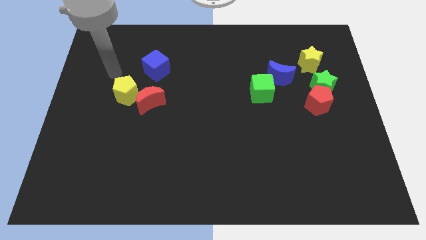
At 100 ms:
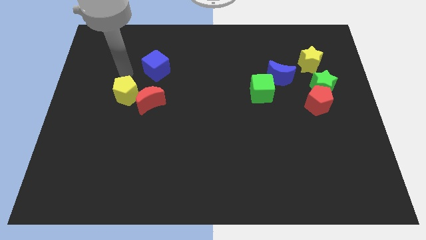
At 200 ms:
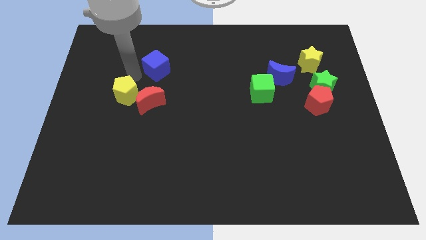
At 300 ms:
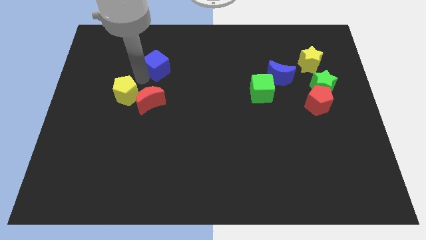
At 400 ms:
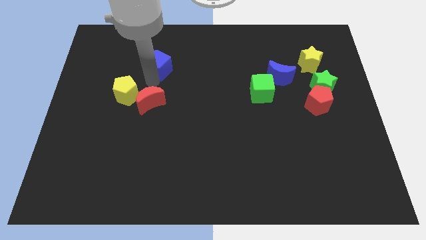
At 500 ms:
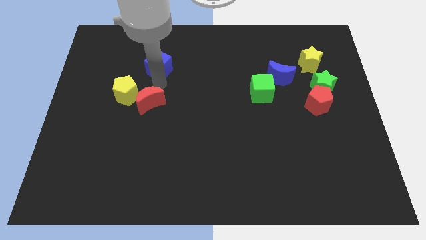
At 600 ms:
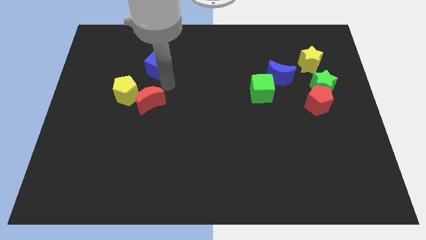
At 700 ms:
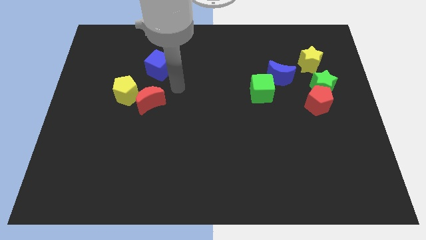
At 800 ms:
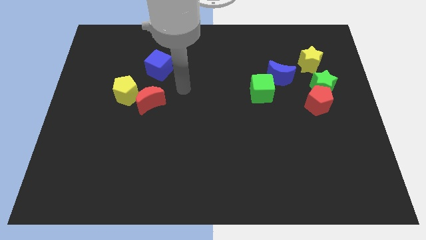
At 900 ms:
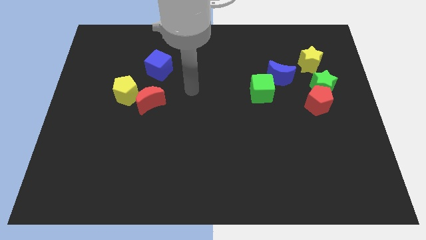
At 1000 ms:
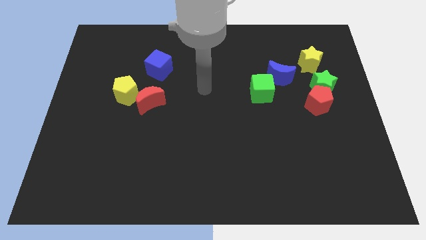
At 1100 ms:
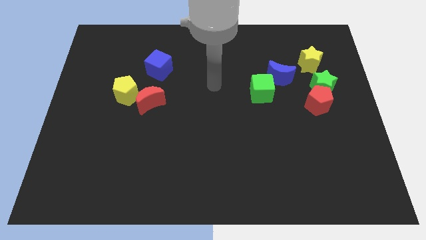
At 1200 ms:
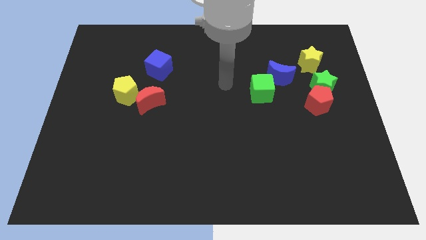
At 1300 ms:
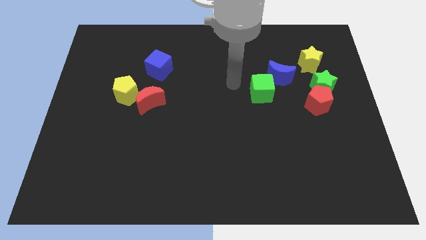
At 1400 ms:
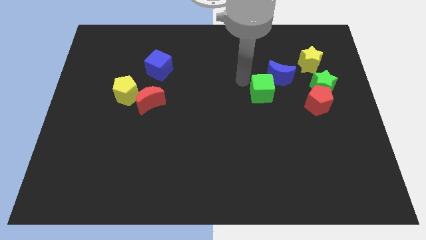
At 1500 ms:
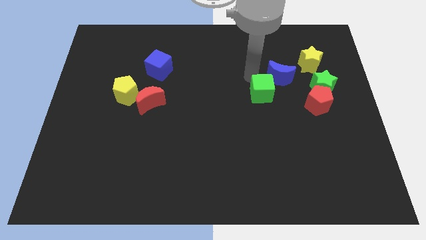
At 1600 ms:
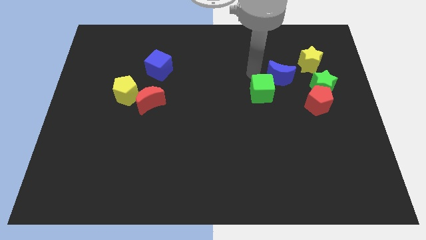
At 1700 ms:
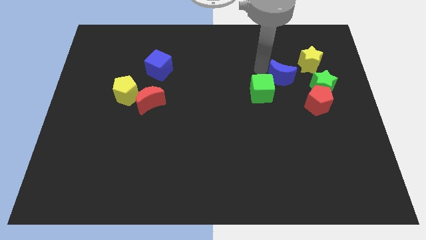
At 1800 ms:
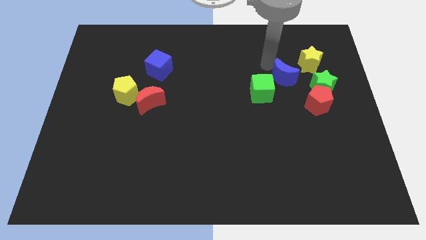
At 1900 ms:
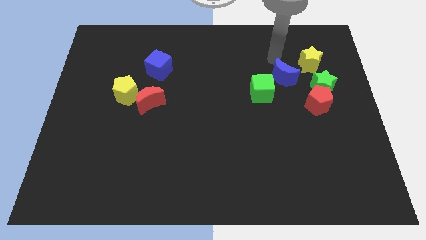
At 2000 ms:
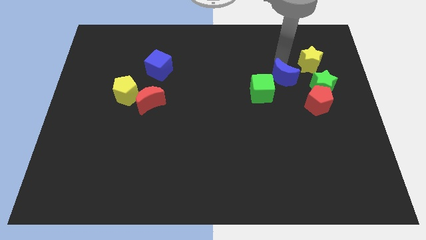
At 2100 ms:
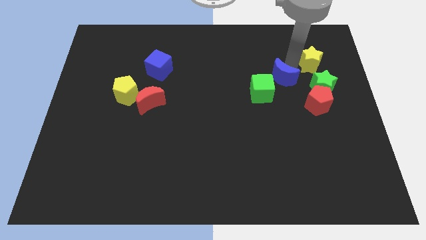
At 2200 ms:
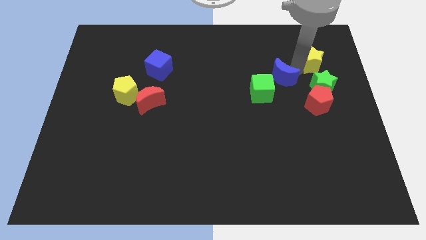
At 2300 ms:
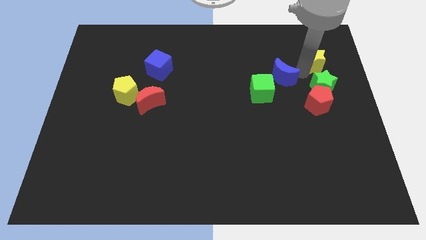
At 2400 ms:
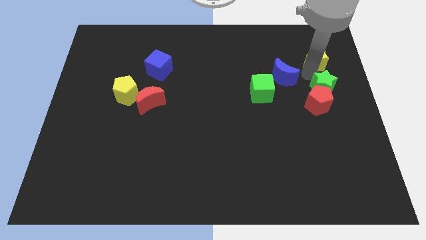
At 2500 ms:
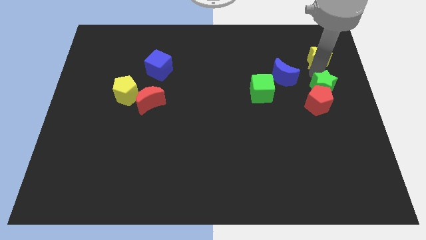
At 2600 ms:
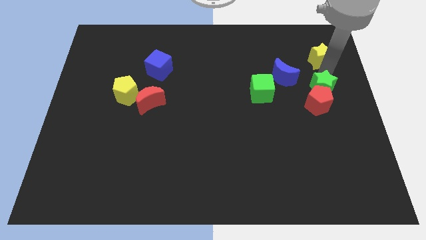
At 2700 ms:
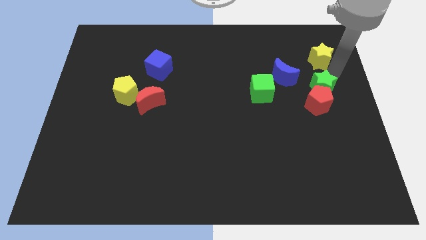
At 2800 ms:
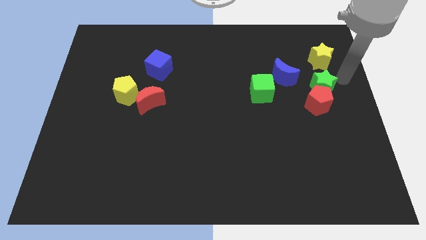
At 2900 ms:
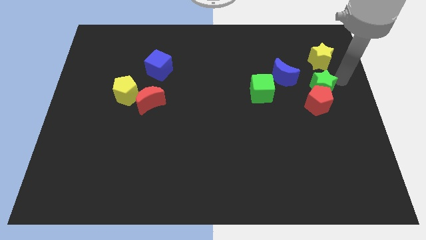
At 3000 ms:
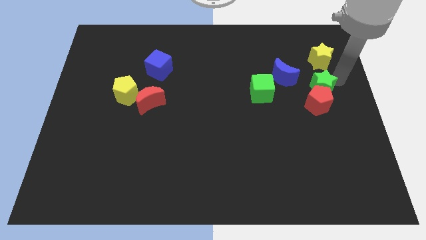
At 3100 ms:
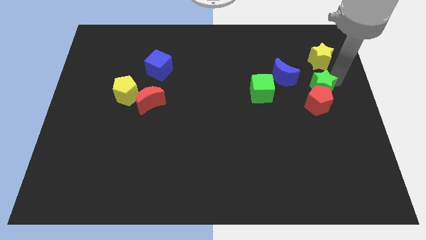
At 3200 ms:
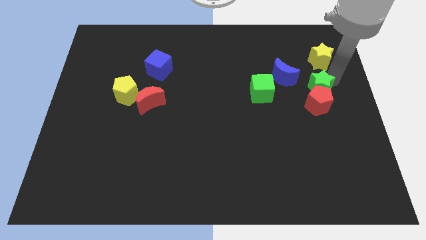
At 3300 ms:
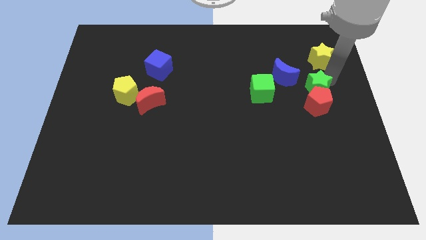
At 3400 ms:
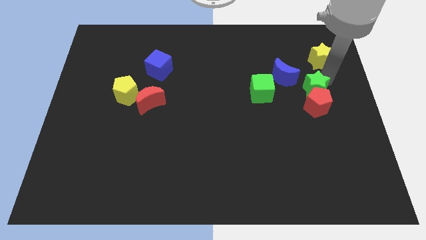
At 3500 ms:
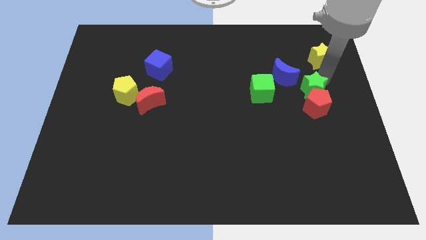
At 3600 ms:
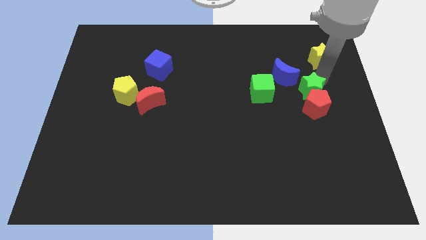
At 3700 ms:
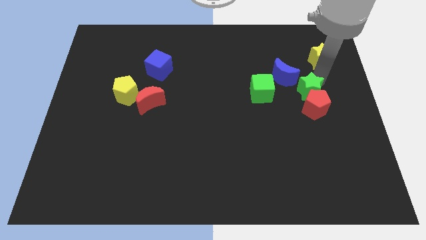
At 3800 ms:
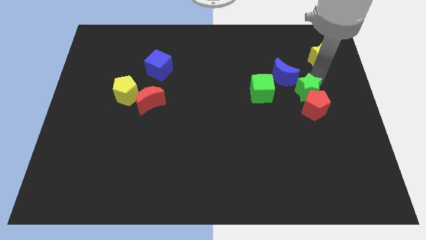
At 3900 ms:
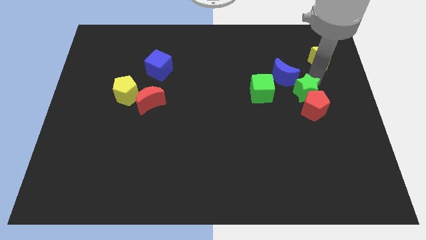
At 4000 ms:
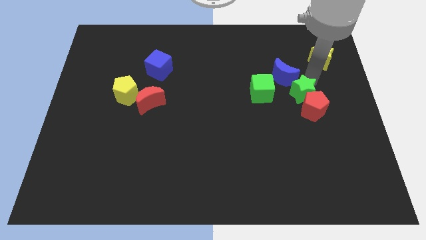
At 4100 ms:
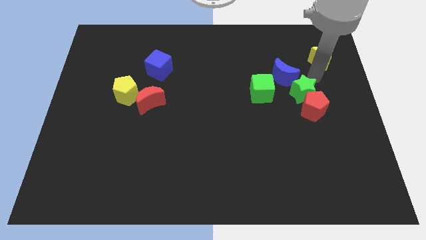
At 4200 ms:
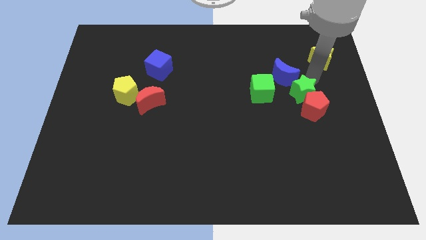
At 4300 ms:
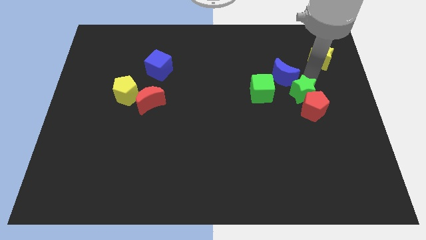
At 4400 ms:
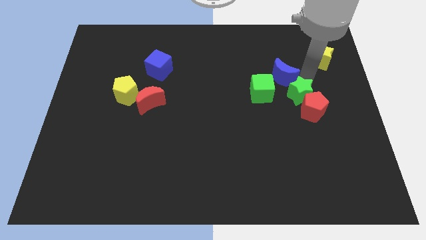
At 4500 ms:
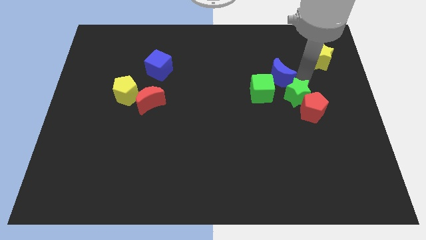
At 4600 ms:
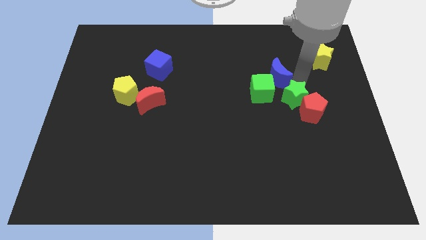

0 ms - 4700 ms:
slide the green star a little bit down and to the left diagonally

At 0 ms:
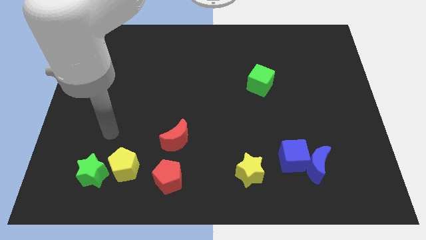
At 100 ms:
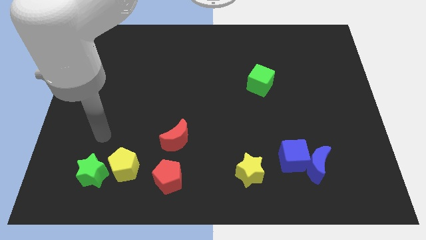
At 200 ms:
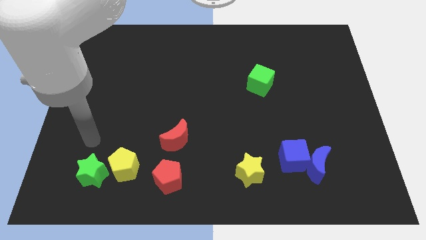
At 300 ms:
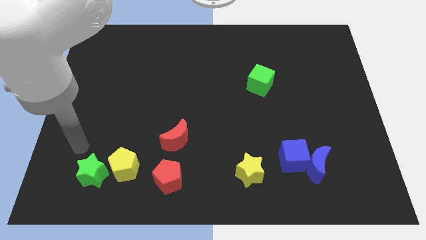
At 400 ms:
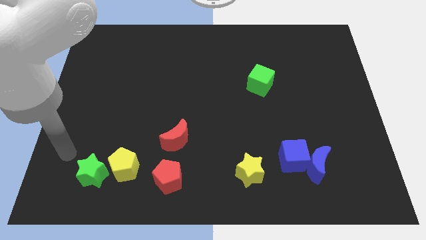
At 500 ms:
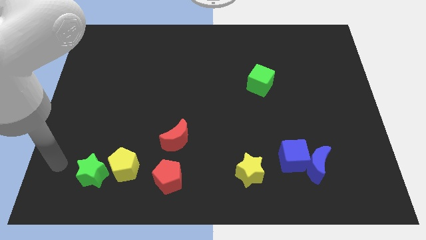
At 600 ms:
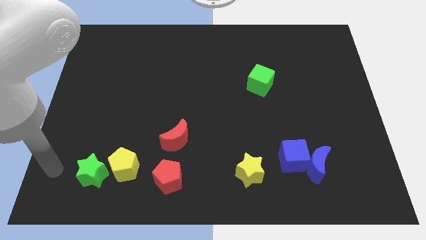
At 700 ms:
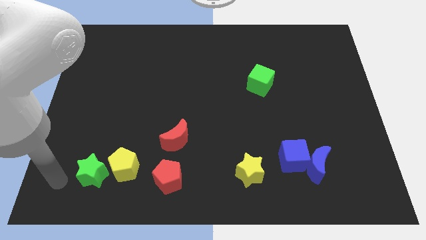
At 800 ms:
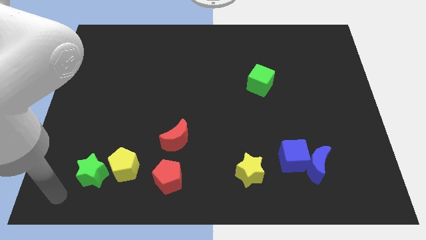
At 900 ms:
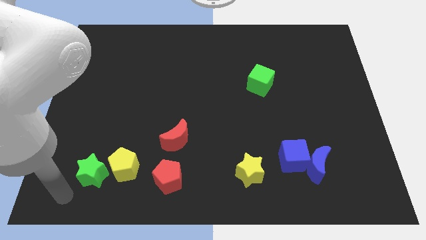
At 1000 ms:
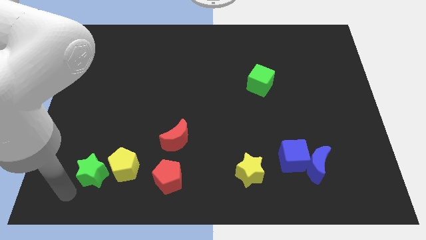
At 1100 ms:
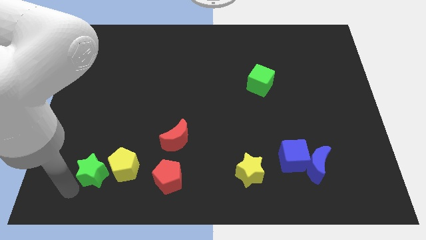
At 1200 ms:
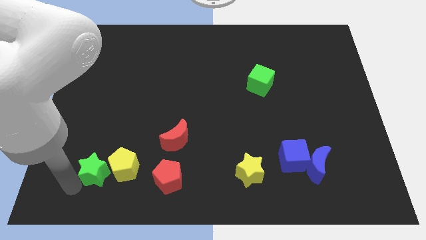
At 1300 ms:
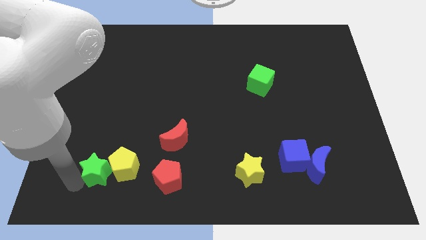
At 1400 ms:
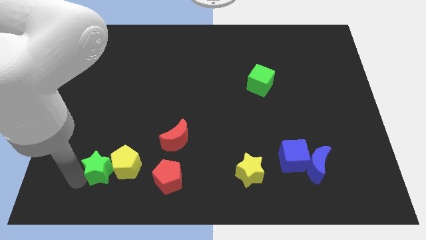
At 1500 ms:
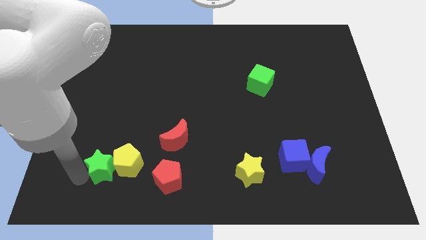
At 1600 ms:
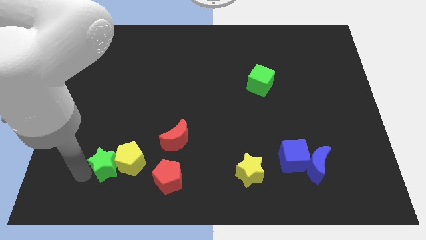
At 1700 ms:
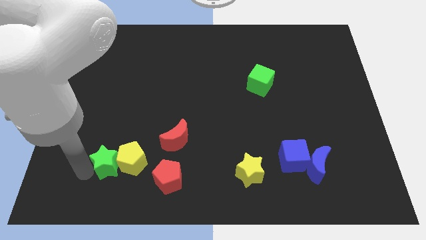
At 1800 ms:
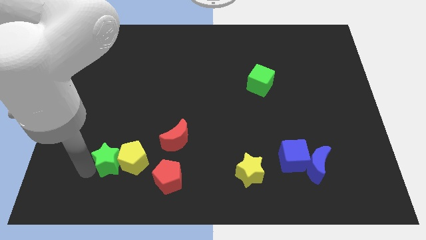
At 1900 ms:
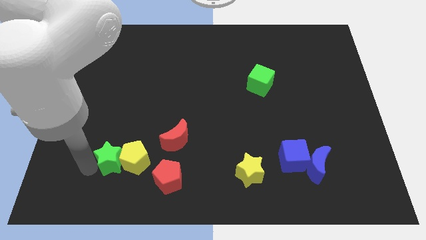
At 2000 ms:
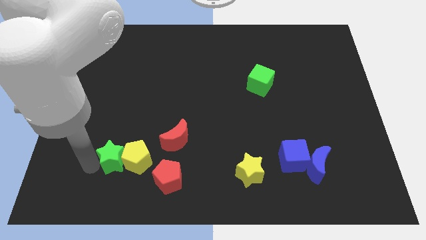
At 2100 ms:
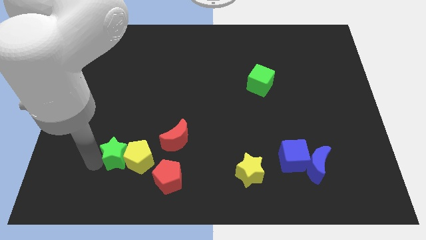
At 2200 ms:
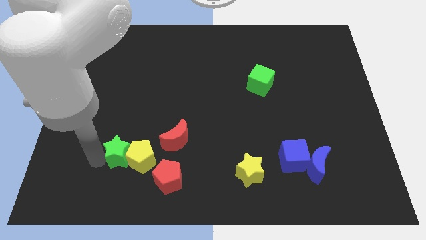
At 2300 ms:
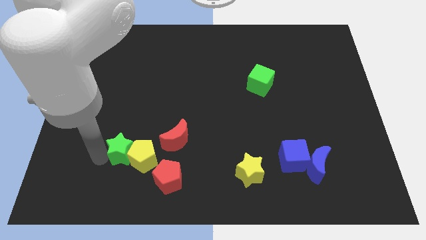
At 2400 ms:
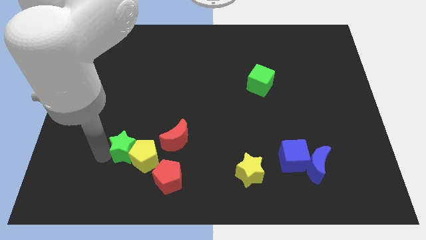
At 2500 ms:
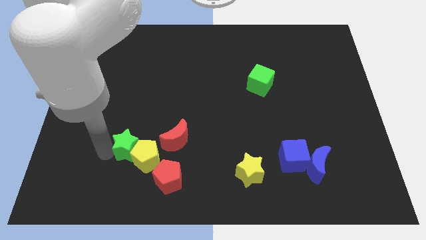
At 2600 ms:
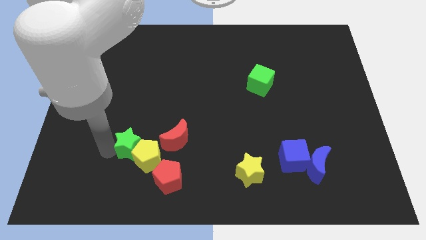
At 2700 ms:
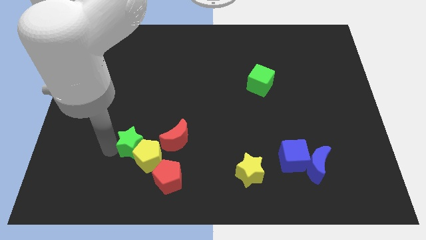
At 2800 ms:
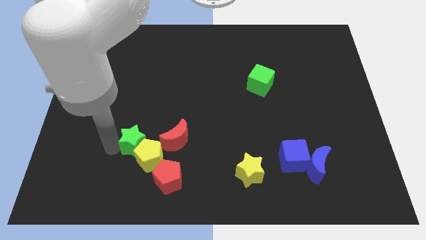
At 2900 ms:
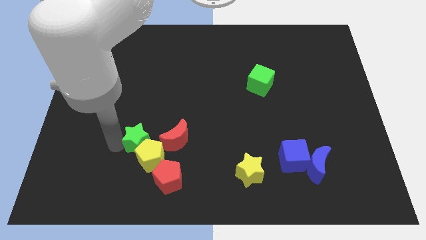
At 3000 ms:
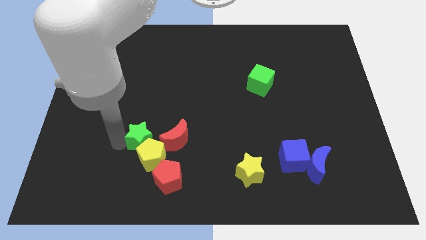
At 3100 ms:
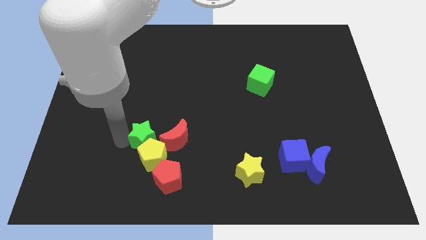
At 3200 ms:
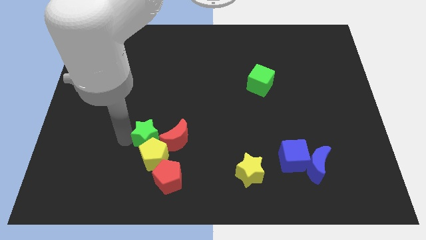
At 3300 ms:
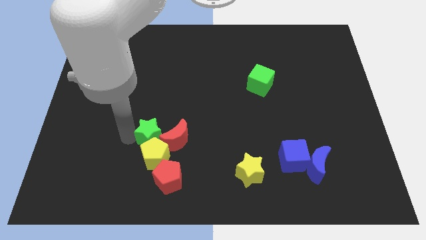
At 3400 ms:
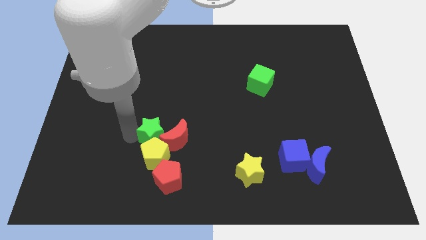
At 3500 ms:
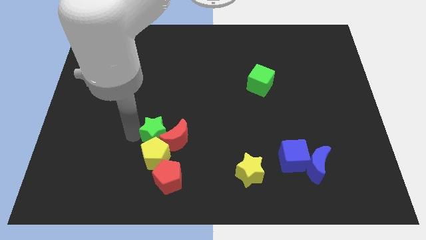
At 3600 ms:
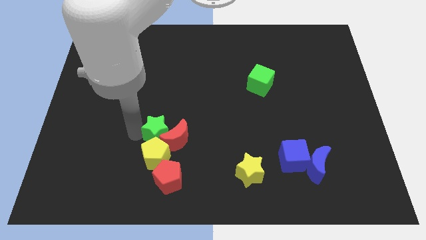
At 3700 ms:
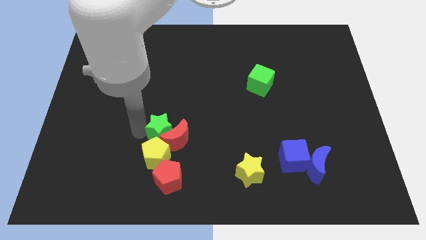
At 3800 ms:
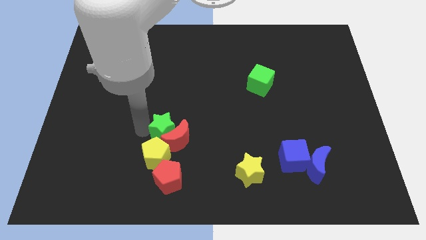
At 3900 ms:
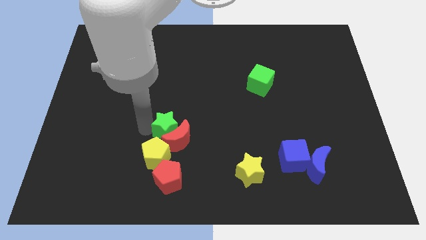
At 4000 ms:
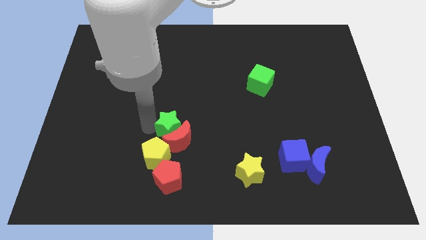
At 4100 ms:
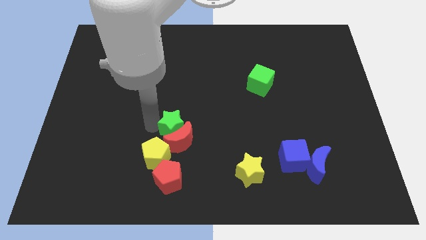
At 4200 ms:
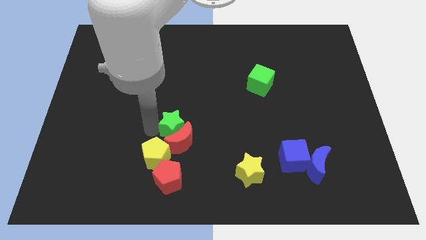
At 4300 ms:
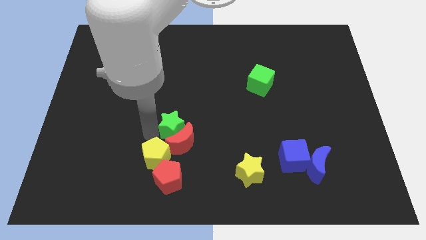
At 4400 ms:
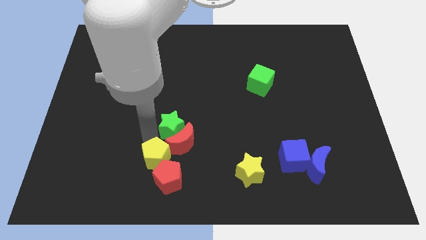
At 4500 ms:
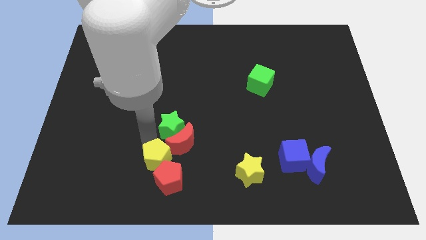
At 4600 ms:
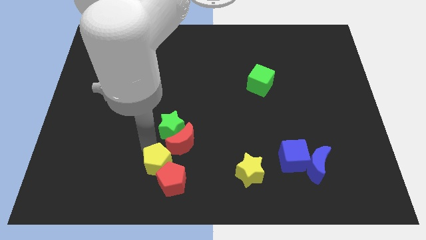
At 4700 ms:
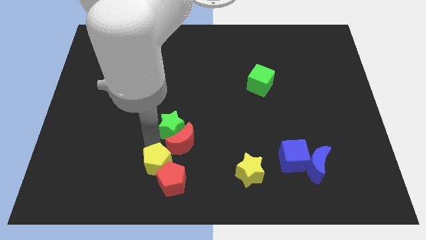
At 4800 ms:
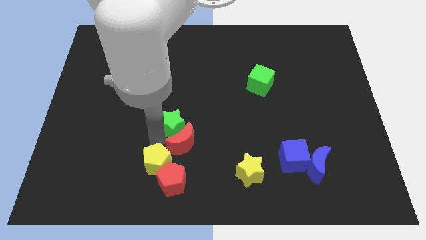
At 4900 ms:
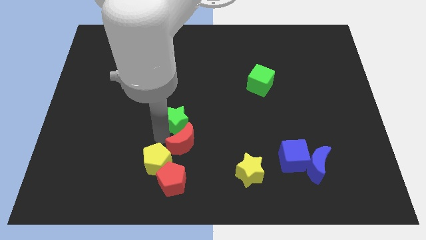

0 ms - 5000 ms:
push the green star up and then to the right
